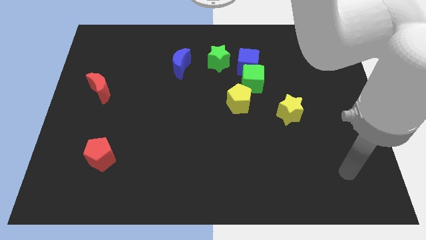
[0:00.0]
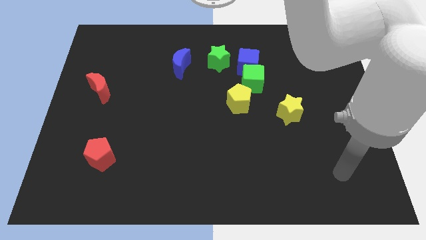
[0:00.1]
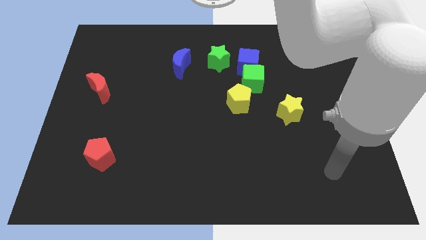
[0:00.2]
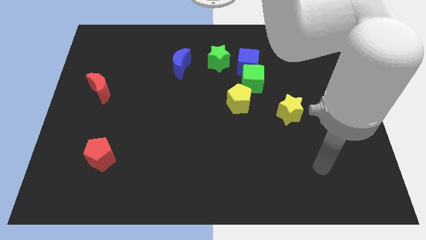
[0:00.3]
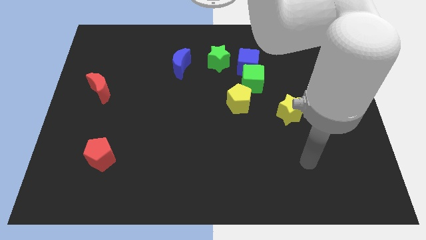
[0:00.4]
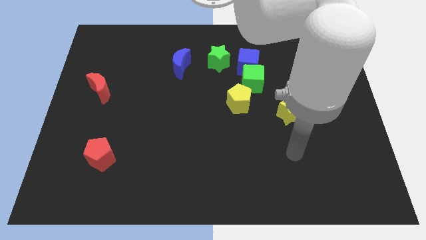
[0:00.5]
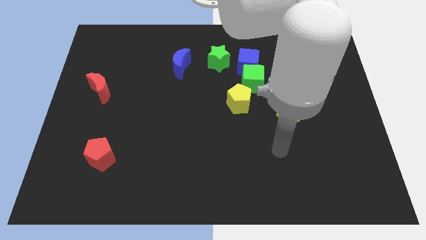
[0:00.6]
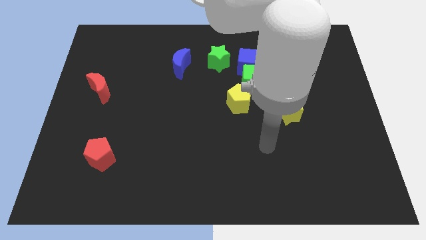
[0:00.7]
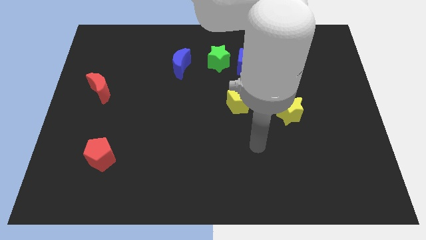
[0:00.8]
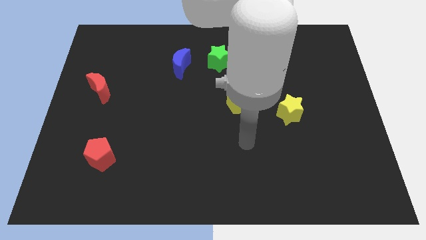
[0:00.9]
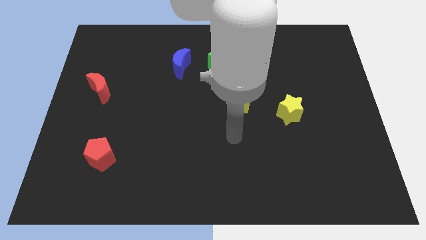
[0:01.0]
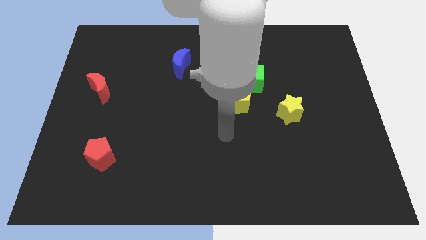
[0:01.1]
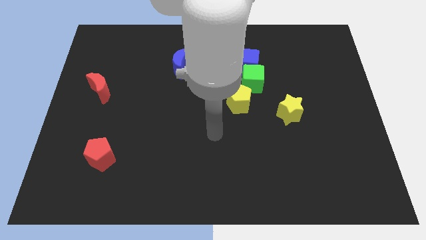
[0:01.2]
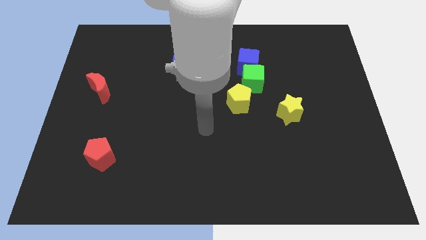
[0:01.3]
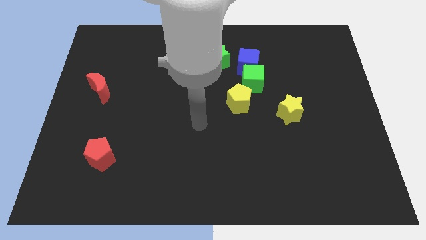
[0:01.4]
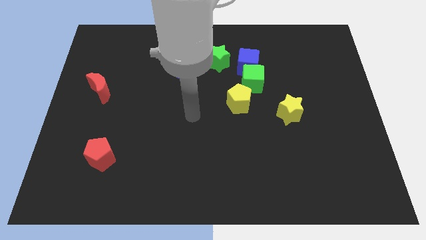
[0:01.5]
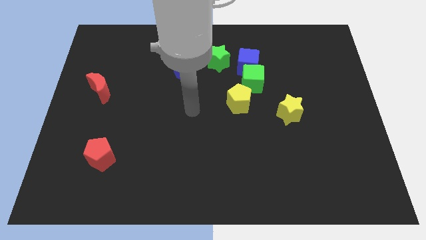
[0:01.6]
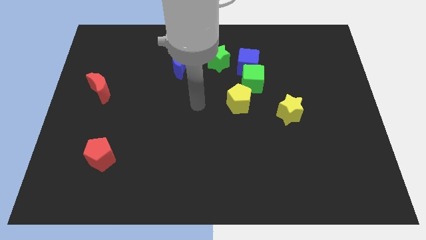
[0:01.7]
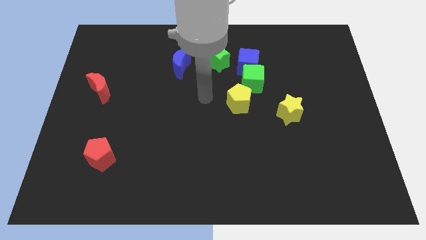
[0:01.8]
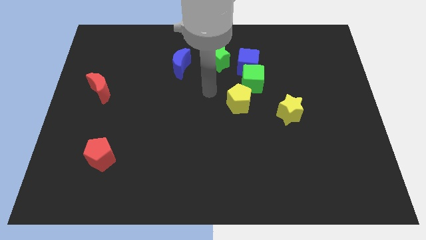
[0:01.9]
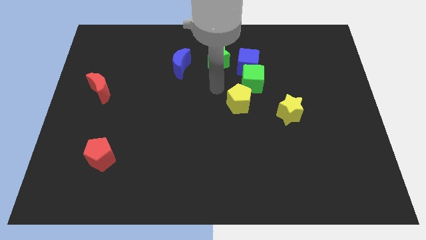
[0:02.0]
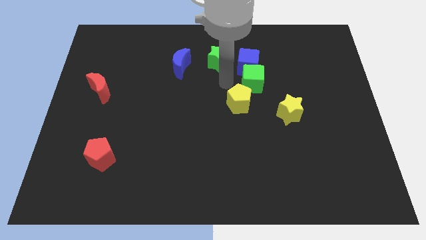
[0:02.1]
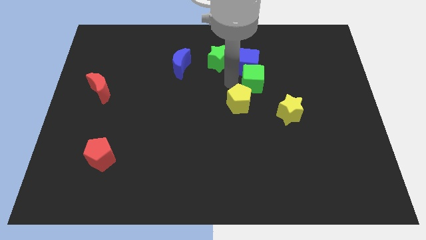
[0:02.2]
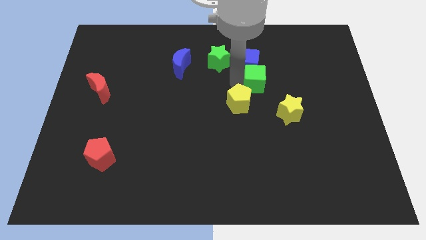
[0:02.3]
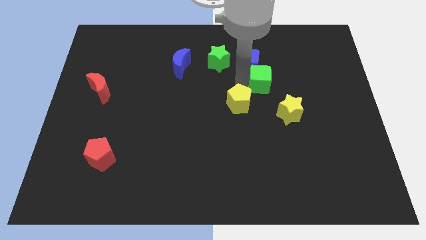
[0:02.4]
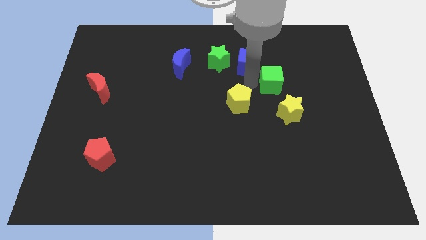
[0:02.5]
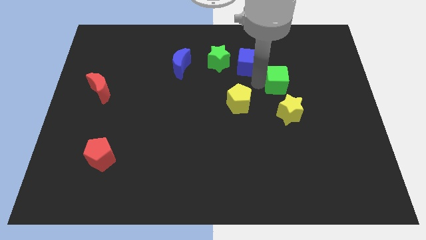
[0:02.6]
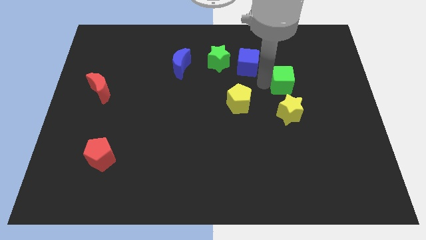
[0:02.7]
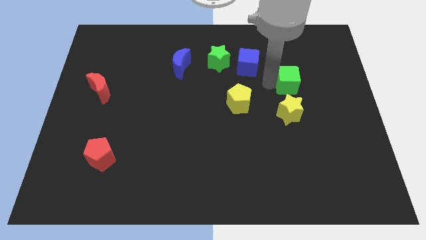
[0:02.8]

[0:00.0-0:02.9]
pull the green cube apart from the blue cube and yellow pentagon

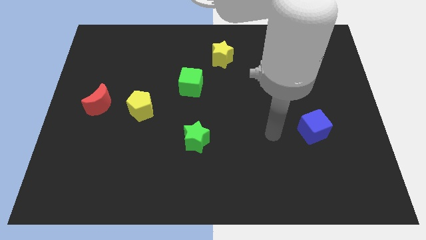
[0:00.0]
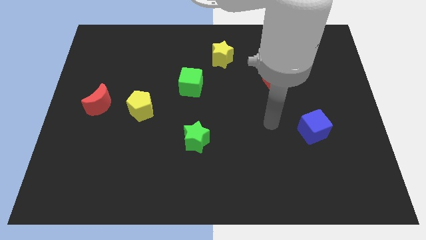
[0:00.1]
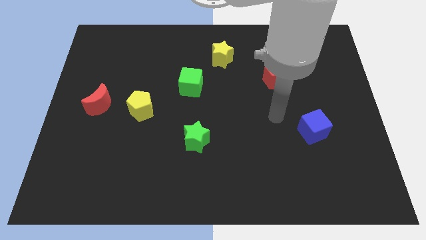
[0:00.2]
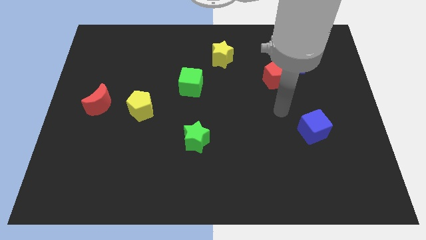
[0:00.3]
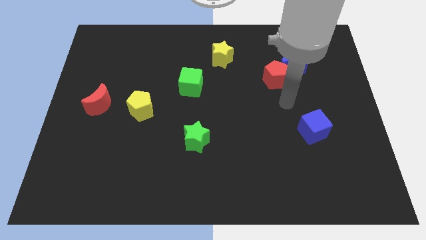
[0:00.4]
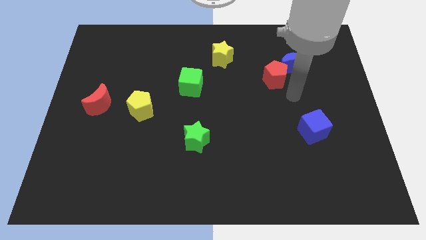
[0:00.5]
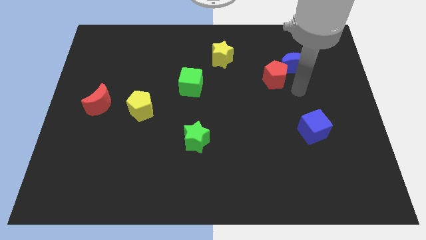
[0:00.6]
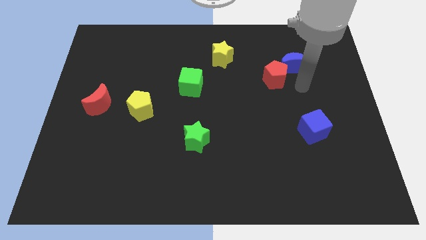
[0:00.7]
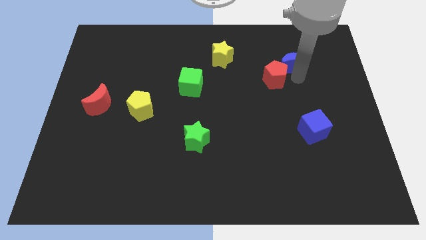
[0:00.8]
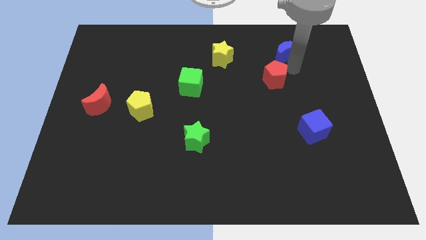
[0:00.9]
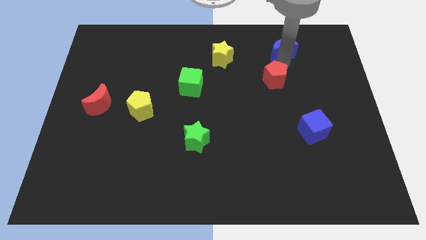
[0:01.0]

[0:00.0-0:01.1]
separate the red pentagon from the blue moon

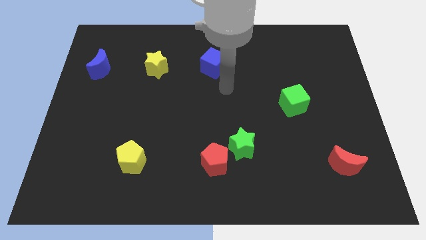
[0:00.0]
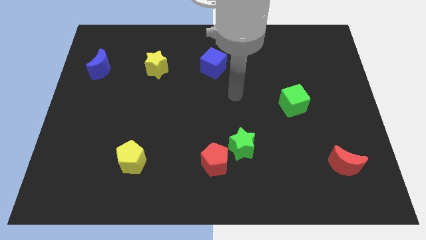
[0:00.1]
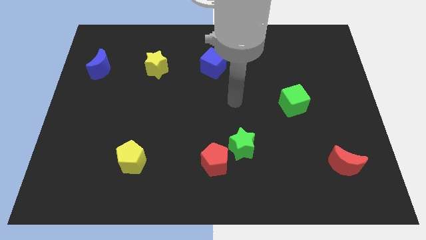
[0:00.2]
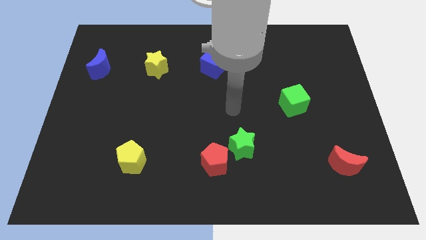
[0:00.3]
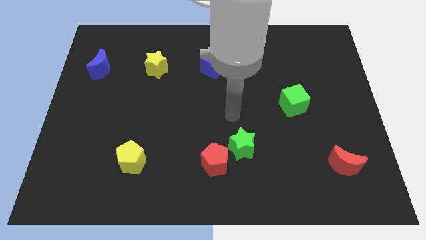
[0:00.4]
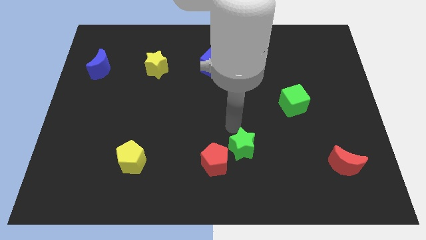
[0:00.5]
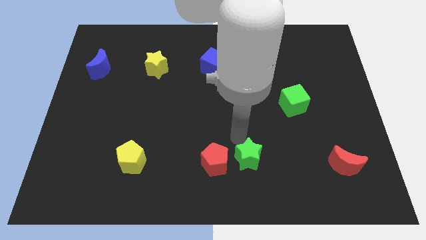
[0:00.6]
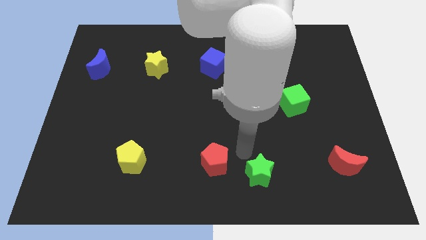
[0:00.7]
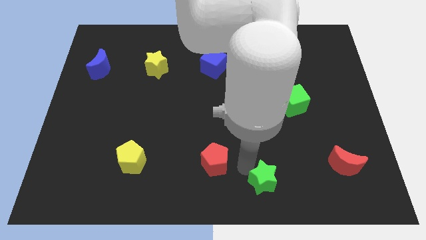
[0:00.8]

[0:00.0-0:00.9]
move the red pentagon away from the green star

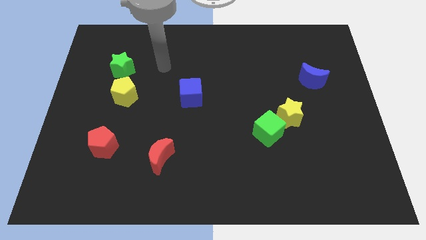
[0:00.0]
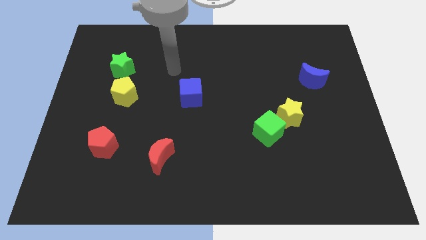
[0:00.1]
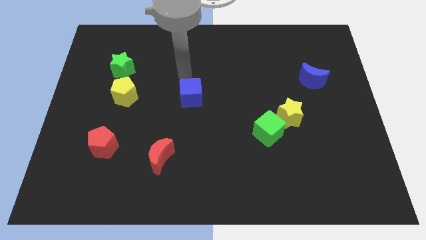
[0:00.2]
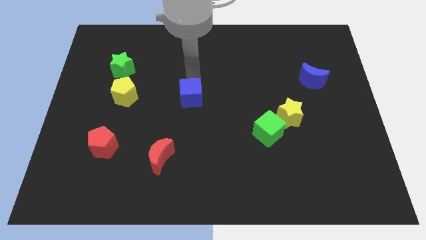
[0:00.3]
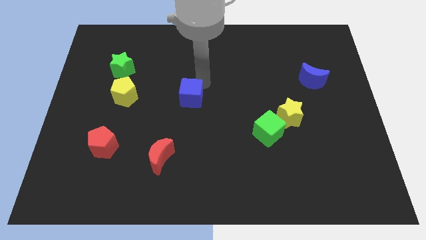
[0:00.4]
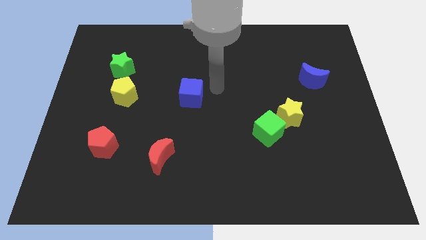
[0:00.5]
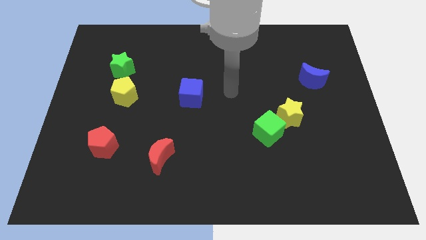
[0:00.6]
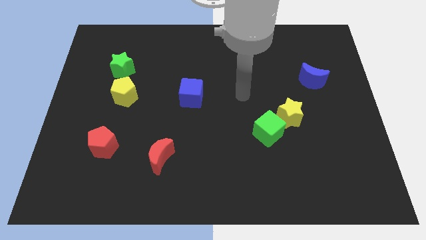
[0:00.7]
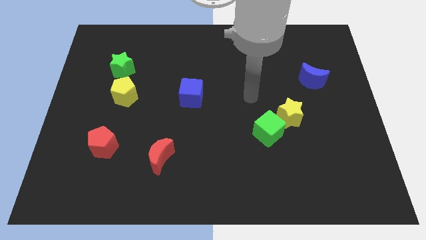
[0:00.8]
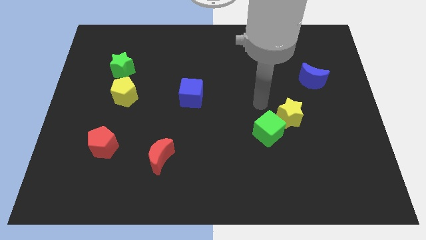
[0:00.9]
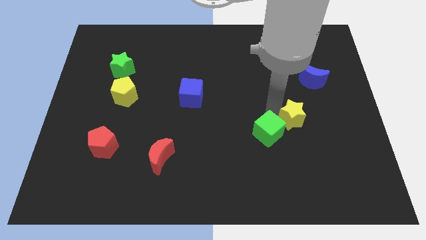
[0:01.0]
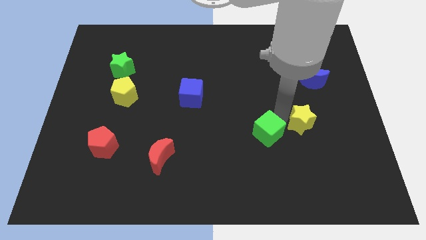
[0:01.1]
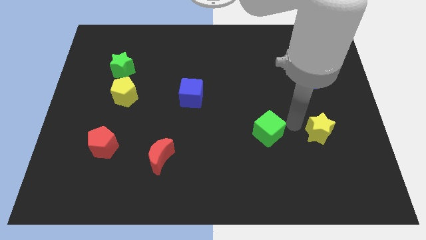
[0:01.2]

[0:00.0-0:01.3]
pull the green cube apart from the yellow star

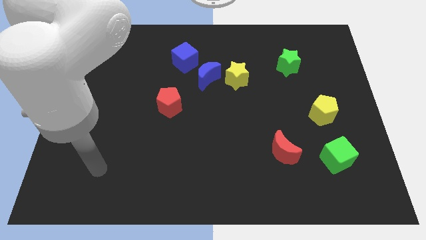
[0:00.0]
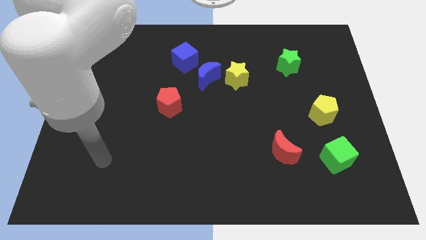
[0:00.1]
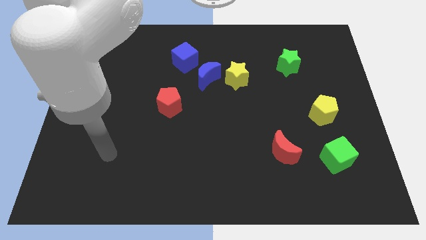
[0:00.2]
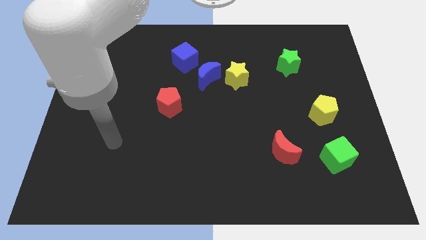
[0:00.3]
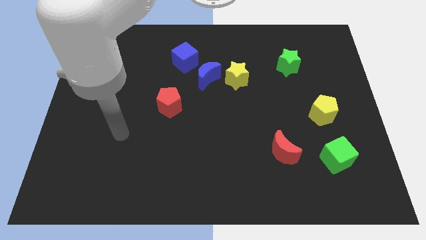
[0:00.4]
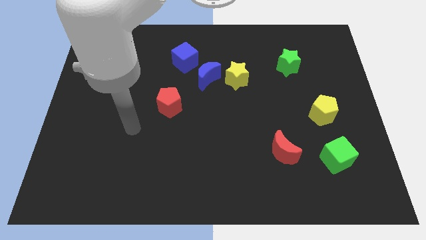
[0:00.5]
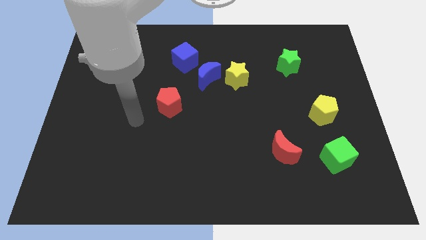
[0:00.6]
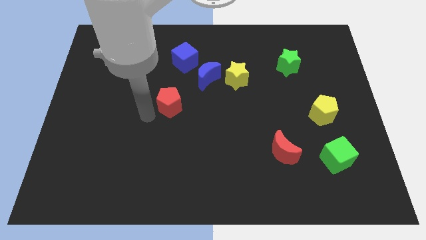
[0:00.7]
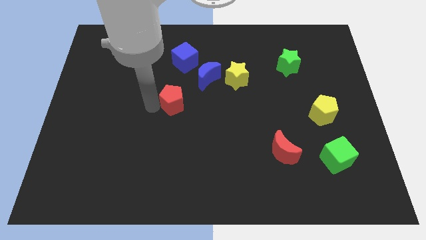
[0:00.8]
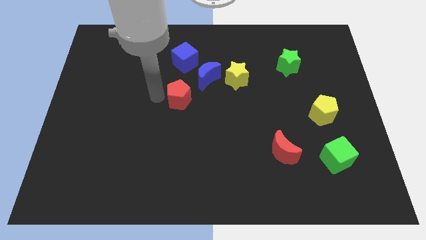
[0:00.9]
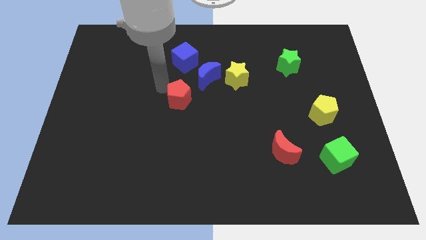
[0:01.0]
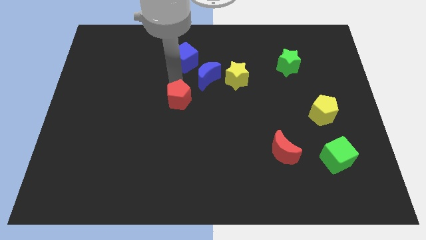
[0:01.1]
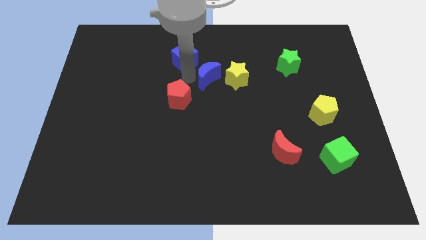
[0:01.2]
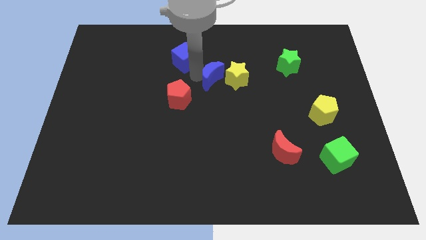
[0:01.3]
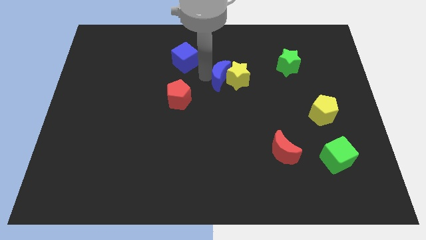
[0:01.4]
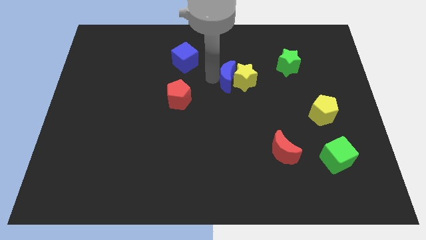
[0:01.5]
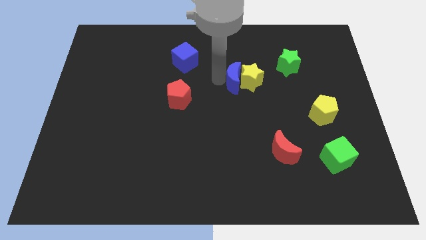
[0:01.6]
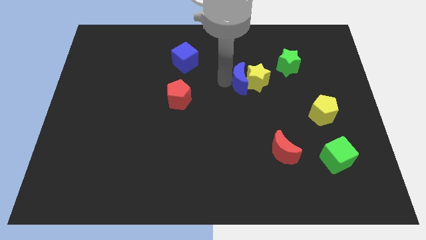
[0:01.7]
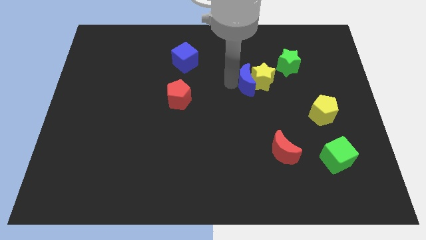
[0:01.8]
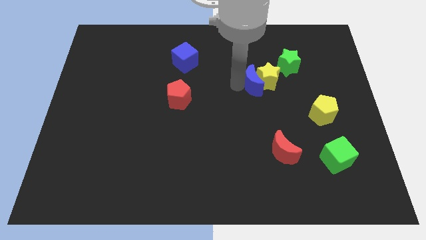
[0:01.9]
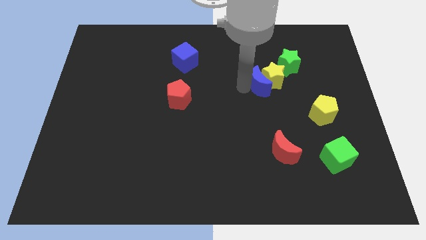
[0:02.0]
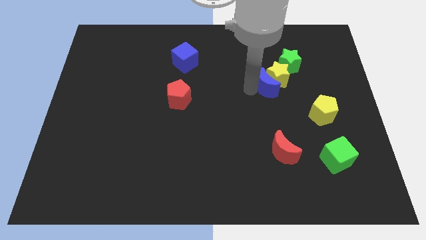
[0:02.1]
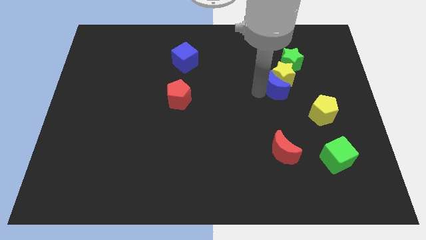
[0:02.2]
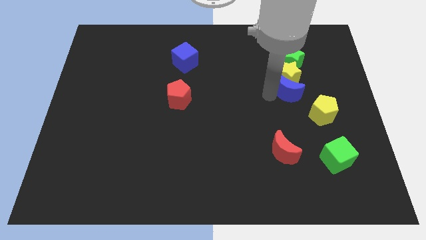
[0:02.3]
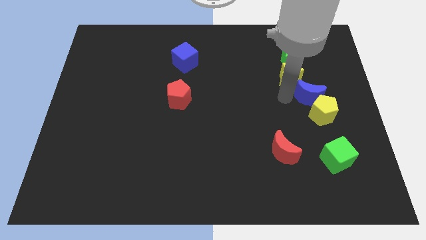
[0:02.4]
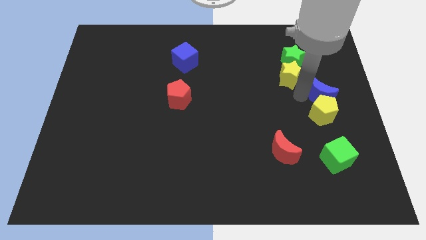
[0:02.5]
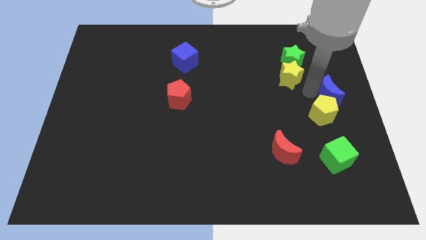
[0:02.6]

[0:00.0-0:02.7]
pull the yellow star apart from the blue moon

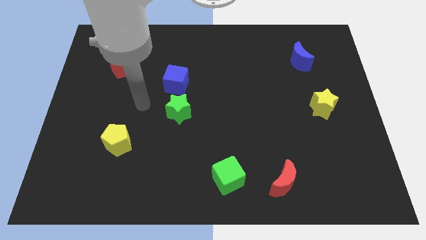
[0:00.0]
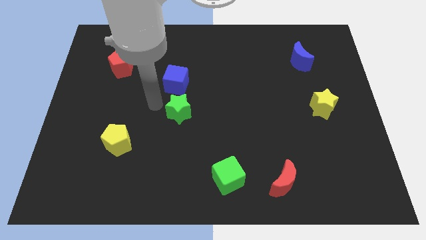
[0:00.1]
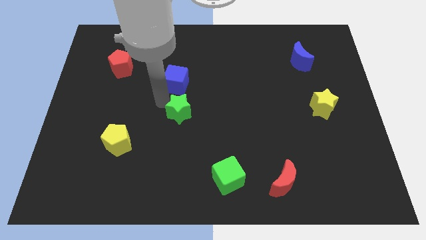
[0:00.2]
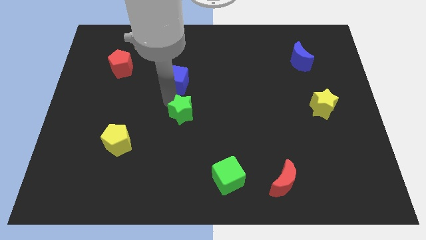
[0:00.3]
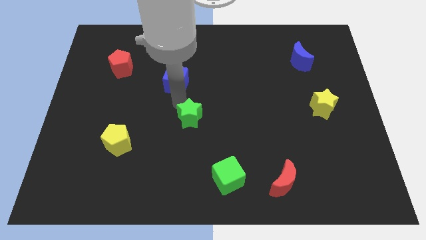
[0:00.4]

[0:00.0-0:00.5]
pull the blue cube apart from the green star
